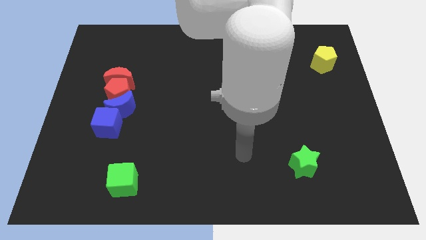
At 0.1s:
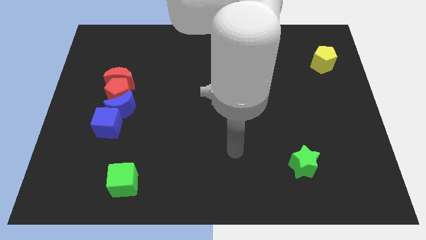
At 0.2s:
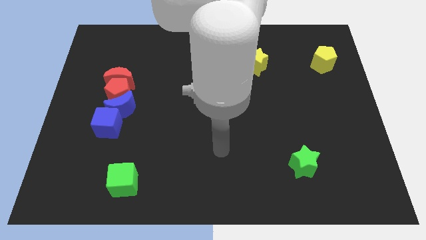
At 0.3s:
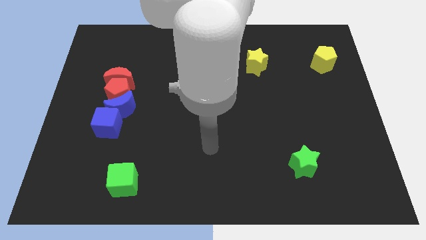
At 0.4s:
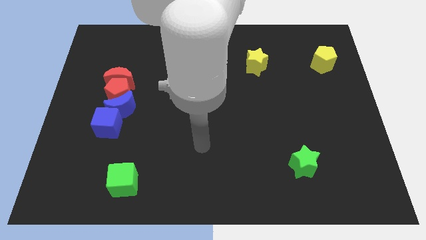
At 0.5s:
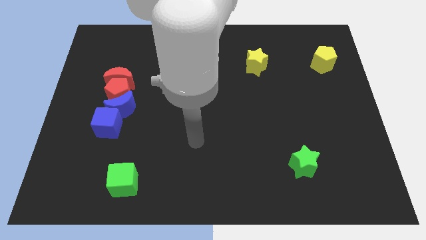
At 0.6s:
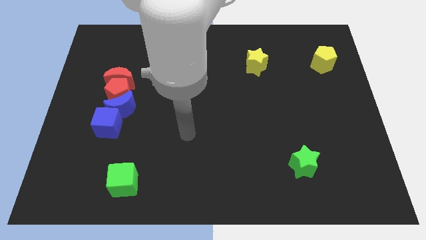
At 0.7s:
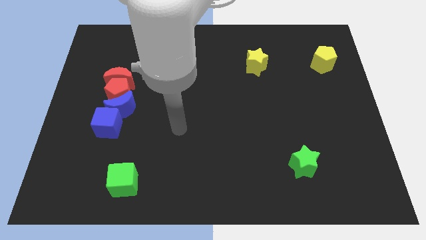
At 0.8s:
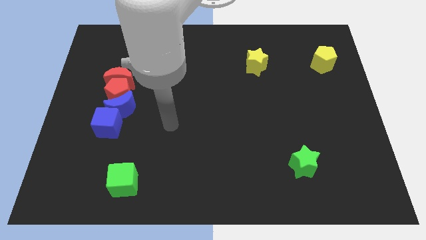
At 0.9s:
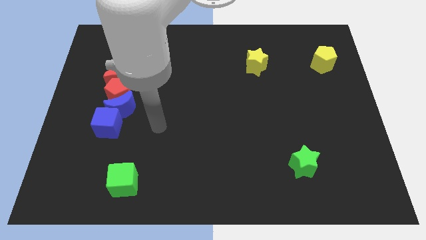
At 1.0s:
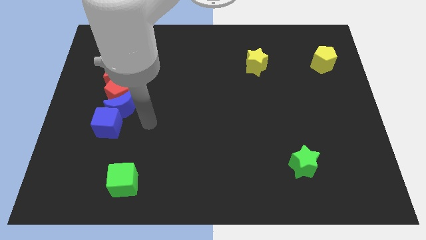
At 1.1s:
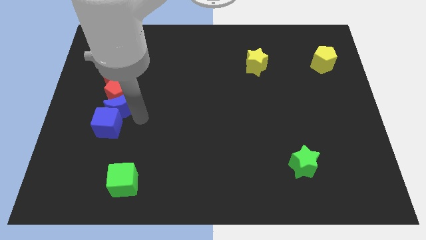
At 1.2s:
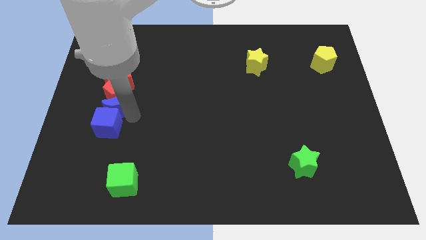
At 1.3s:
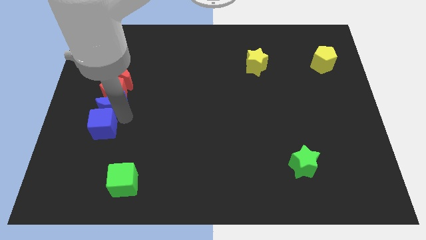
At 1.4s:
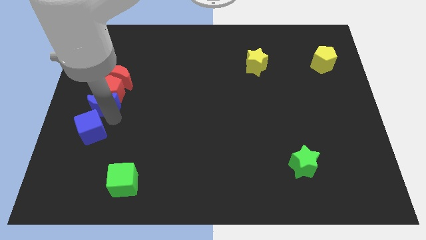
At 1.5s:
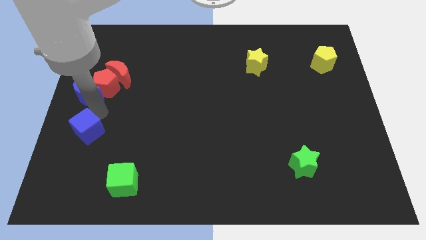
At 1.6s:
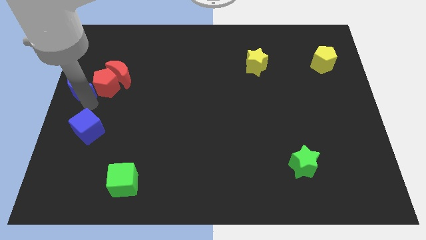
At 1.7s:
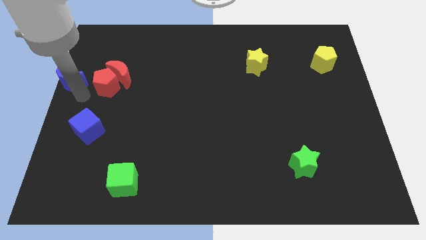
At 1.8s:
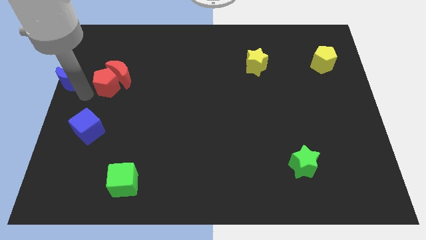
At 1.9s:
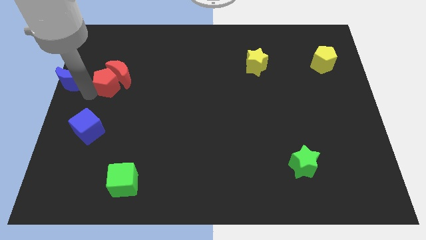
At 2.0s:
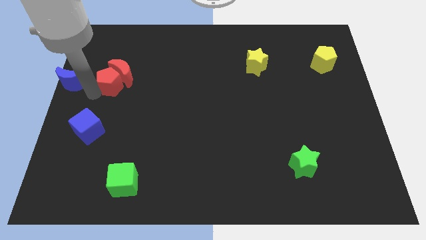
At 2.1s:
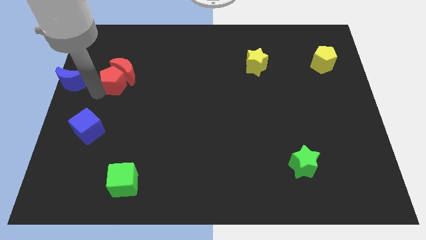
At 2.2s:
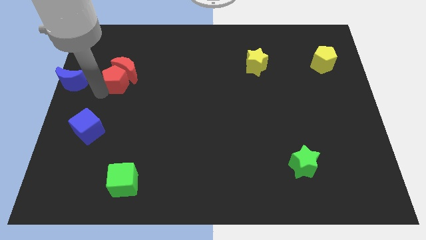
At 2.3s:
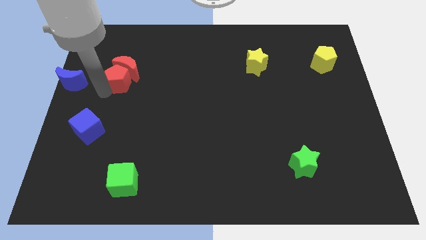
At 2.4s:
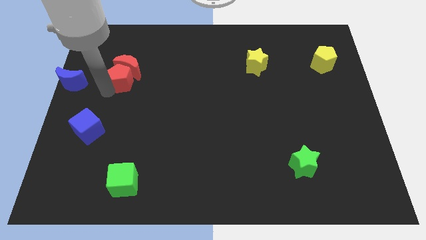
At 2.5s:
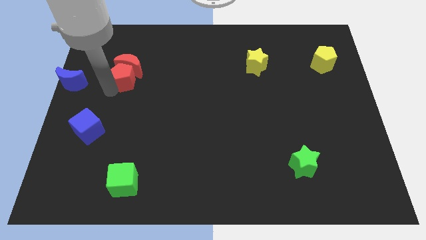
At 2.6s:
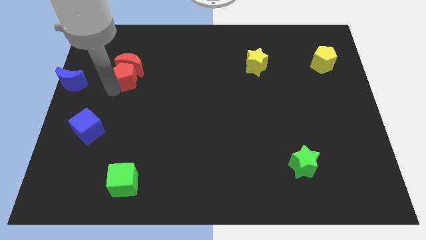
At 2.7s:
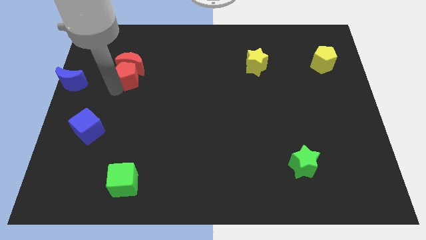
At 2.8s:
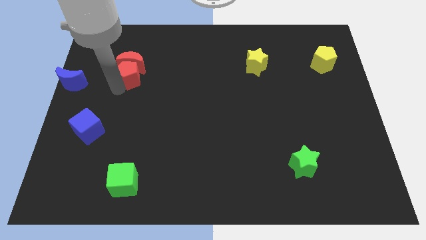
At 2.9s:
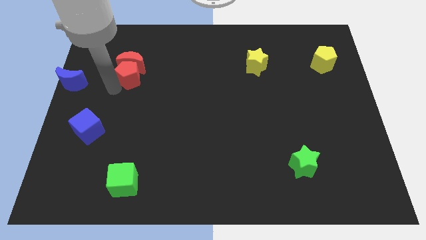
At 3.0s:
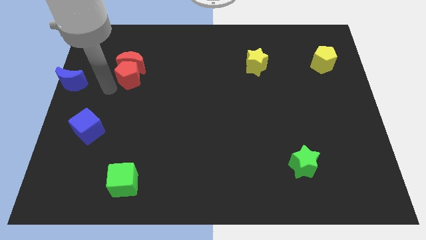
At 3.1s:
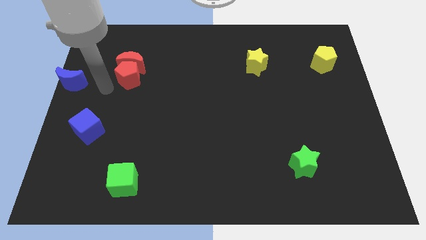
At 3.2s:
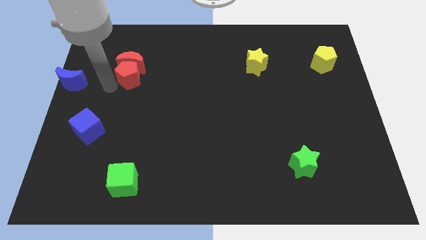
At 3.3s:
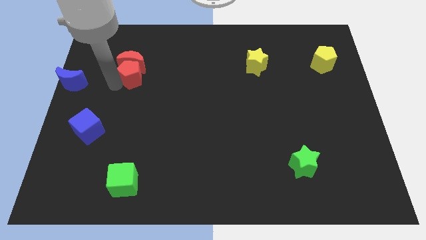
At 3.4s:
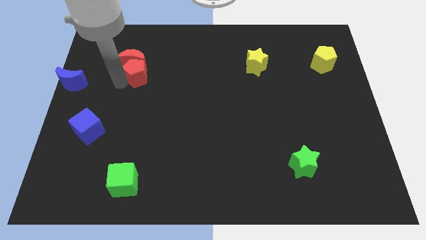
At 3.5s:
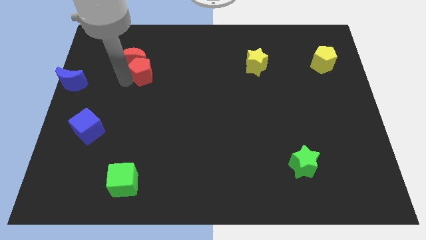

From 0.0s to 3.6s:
pull the red pentagon apart from the blue moon, red moon, and blue cube

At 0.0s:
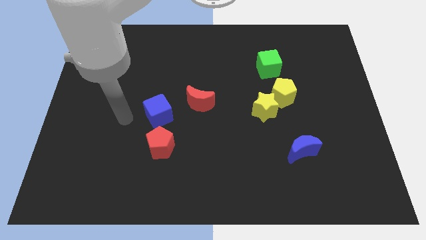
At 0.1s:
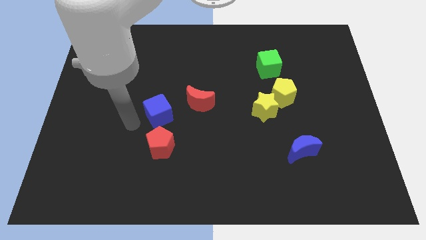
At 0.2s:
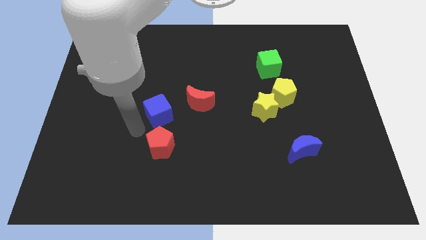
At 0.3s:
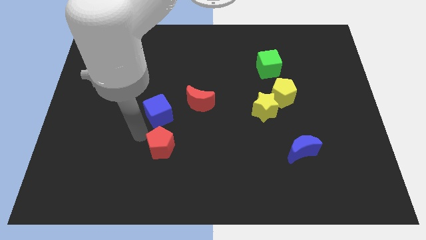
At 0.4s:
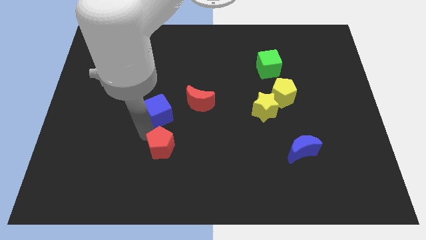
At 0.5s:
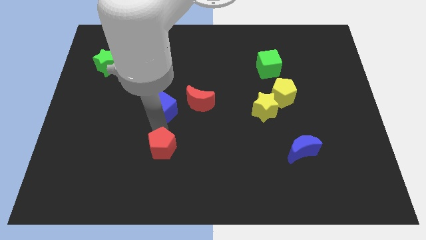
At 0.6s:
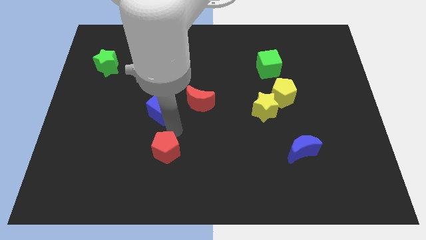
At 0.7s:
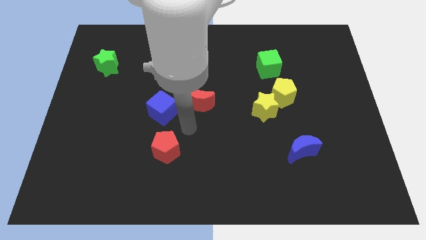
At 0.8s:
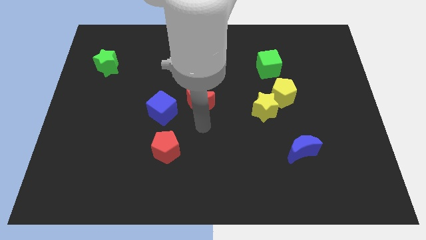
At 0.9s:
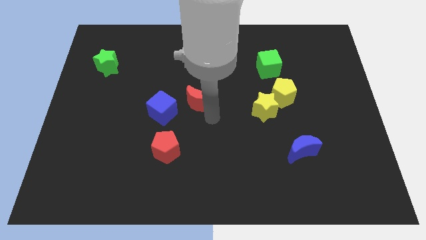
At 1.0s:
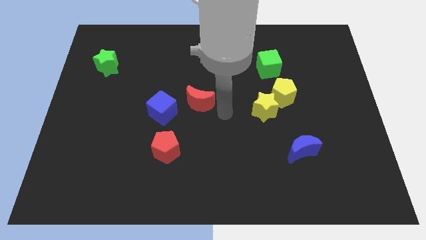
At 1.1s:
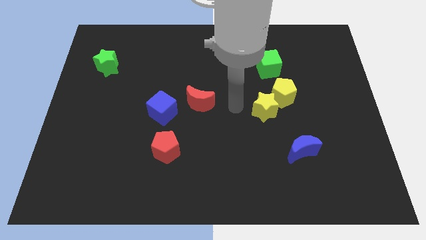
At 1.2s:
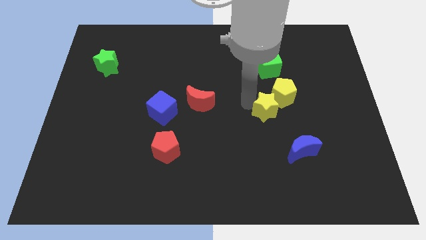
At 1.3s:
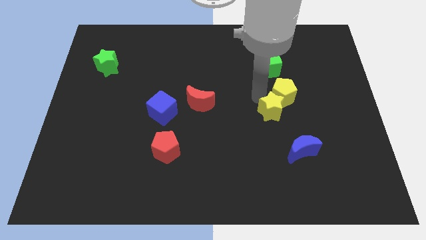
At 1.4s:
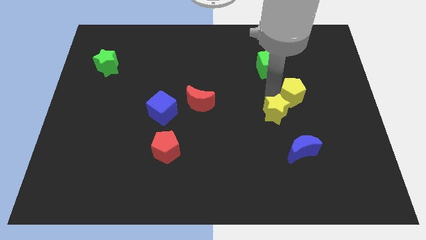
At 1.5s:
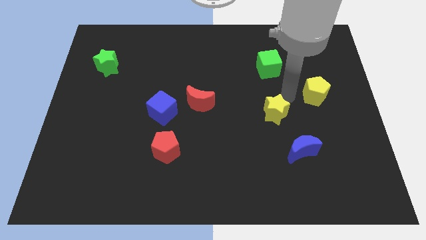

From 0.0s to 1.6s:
separate the yellow star from the yellow pentagon

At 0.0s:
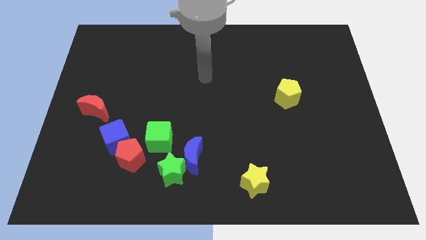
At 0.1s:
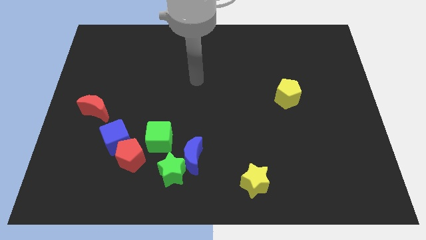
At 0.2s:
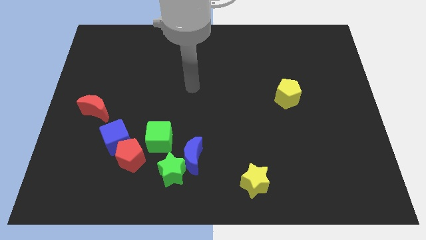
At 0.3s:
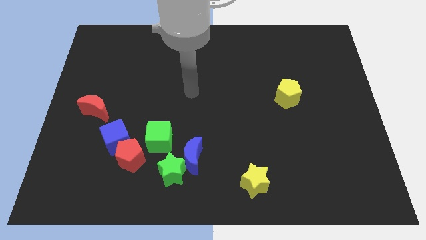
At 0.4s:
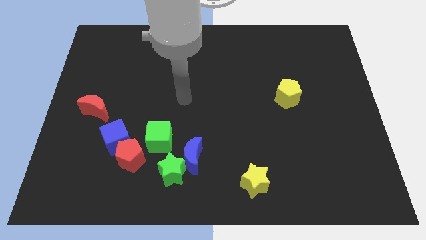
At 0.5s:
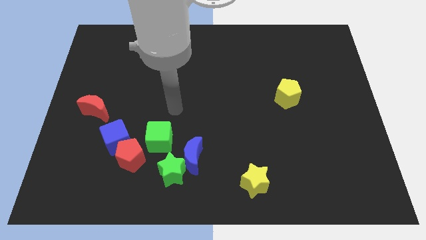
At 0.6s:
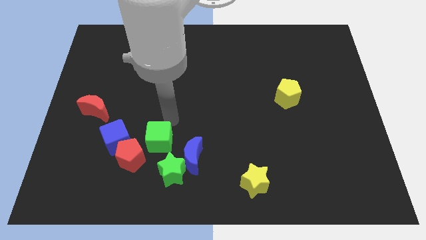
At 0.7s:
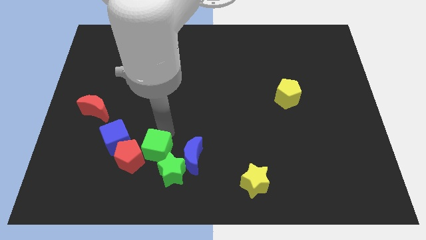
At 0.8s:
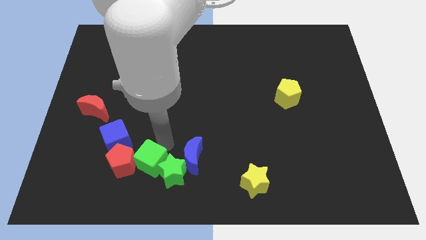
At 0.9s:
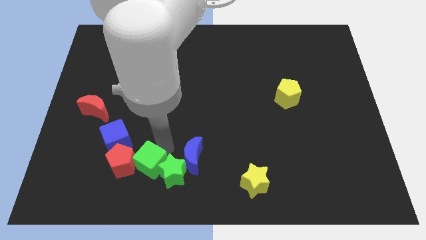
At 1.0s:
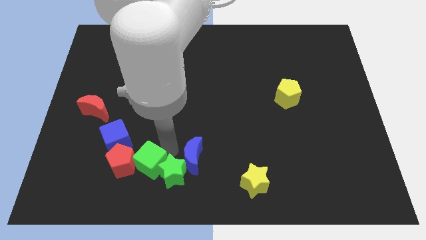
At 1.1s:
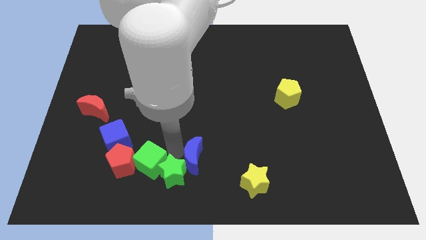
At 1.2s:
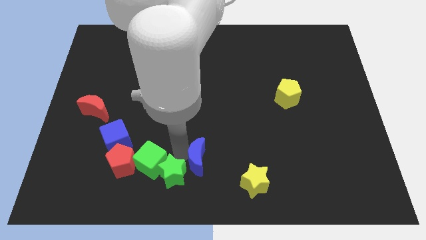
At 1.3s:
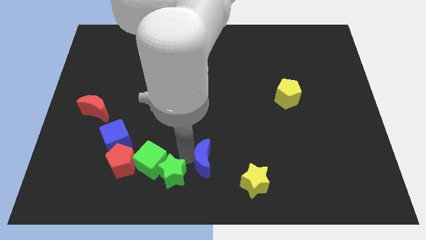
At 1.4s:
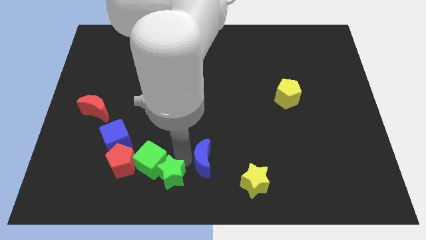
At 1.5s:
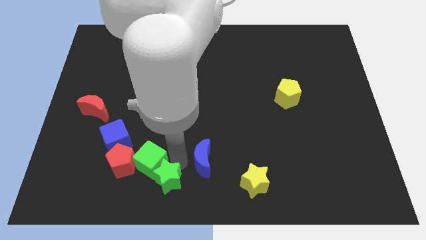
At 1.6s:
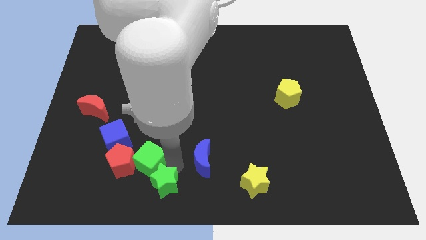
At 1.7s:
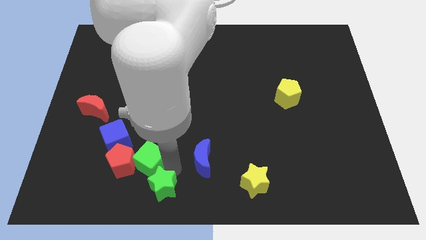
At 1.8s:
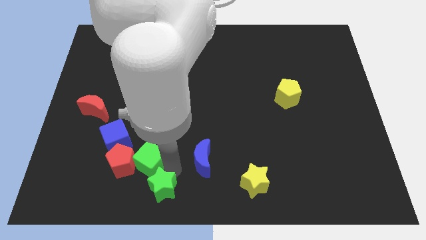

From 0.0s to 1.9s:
separate the blue moon from the green star and green cube

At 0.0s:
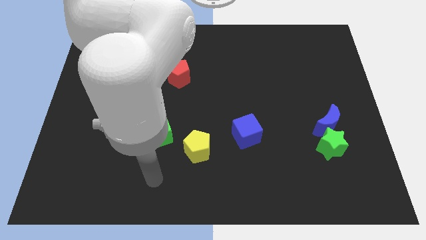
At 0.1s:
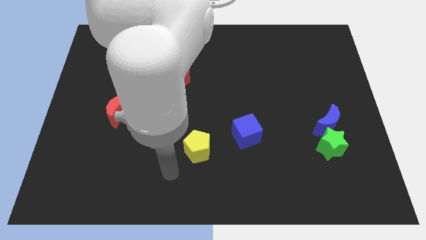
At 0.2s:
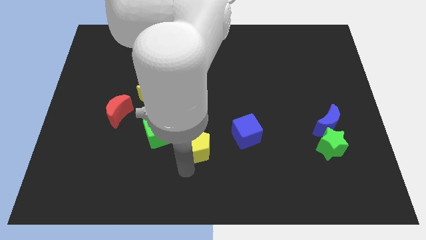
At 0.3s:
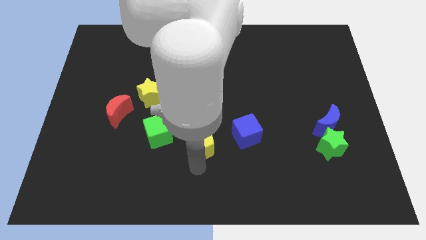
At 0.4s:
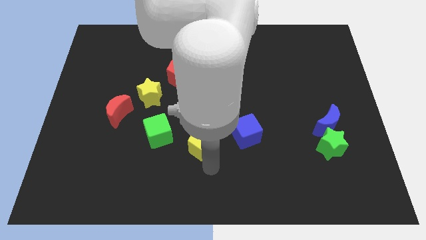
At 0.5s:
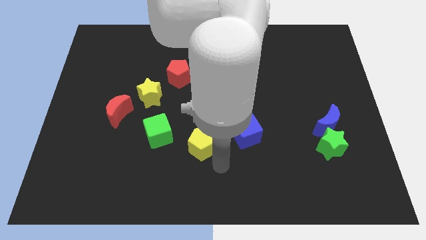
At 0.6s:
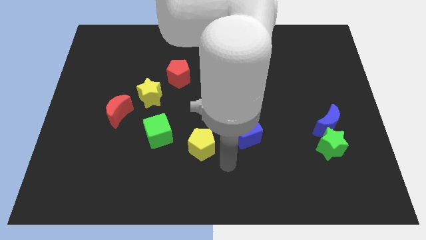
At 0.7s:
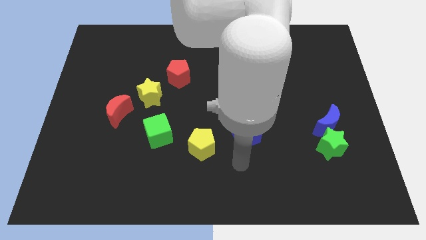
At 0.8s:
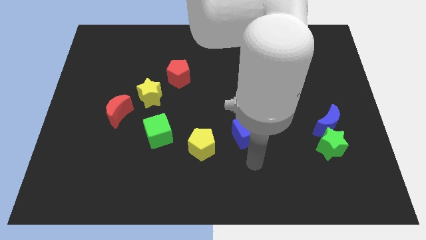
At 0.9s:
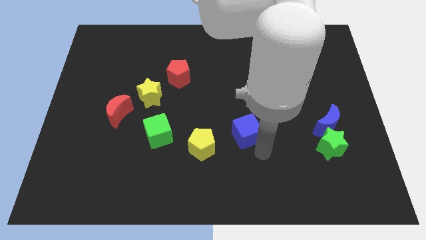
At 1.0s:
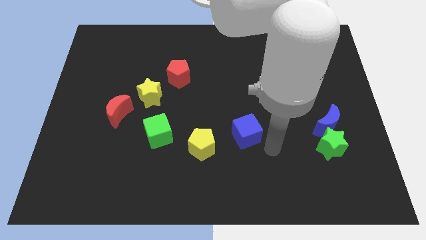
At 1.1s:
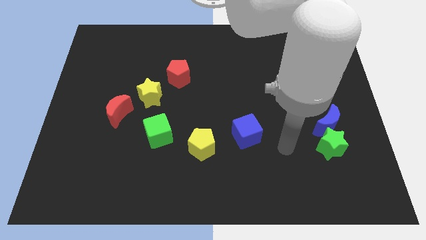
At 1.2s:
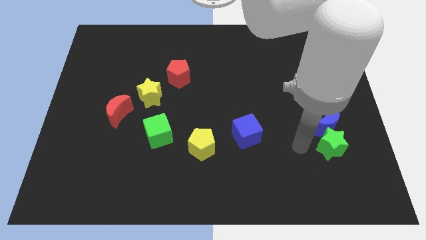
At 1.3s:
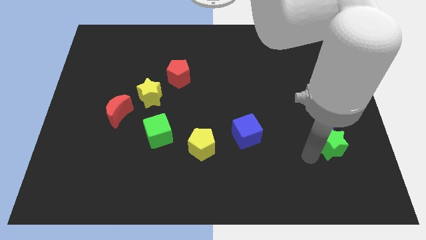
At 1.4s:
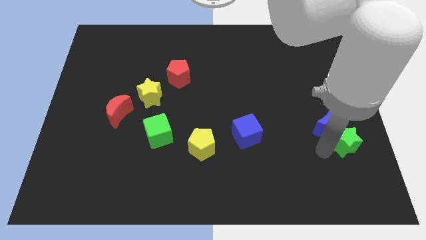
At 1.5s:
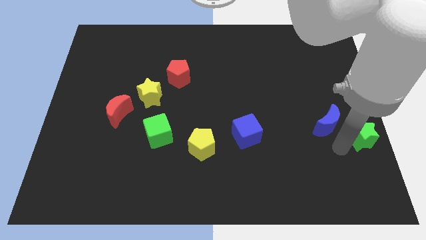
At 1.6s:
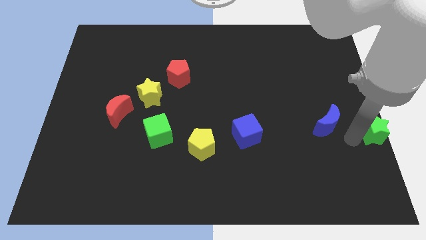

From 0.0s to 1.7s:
move the blue moon away from the green star

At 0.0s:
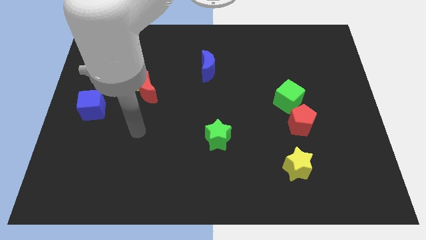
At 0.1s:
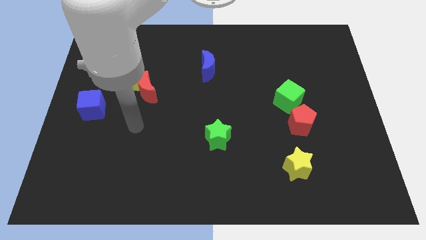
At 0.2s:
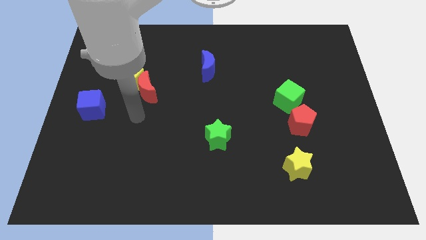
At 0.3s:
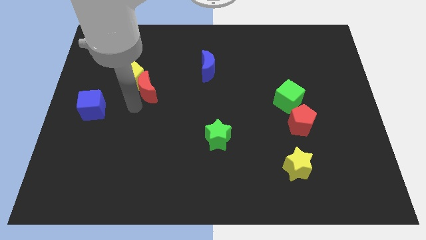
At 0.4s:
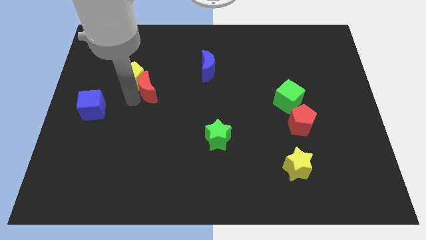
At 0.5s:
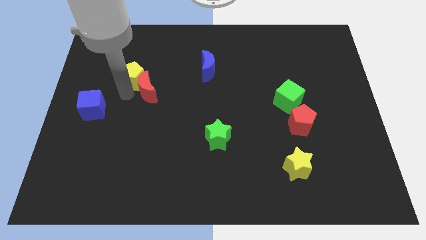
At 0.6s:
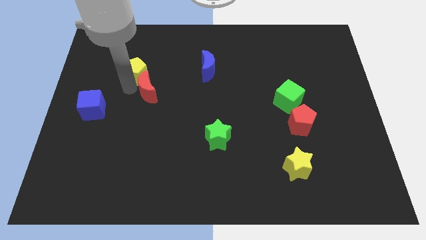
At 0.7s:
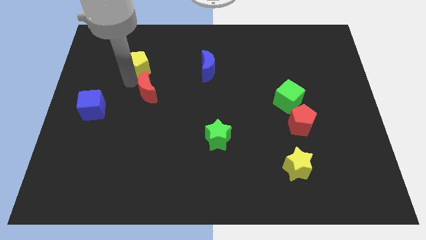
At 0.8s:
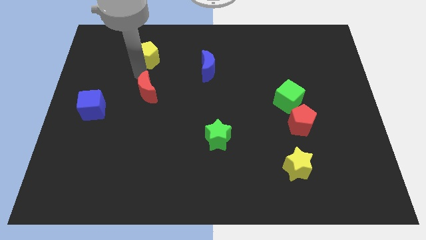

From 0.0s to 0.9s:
separate the red moon from the yellow pentagon
